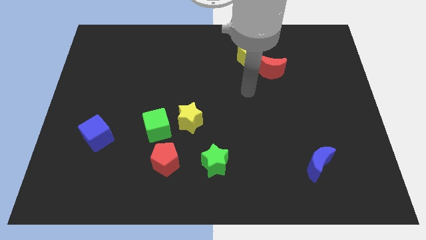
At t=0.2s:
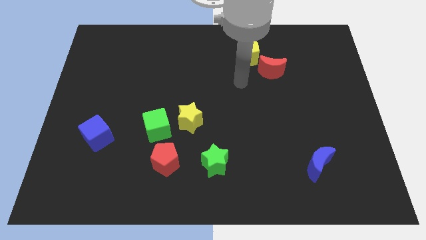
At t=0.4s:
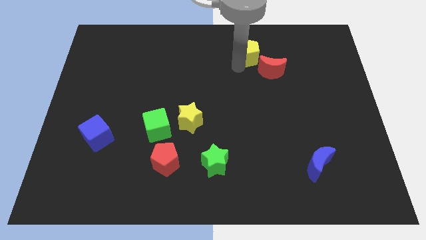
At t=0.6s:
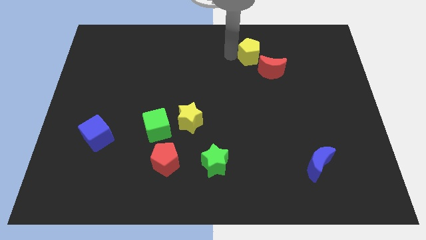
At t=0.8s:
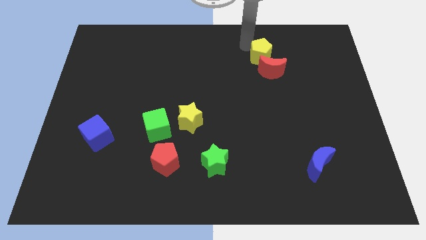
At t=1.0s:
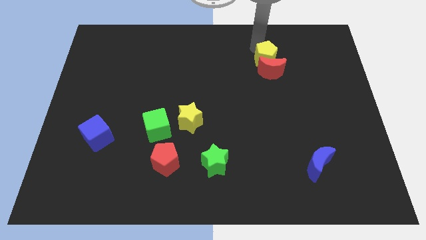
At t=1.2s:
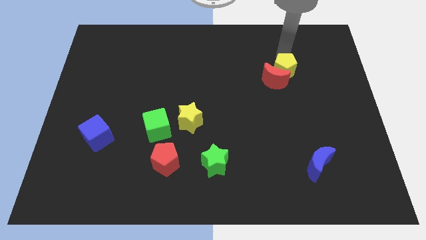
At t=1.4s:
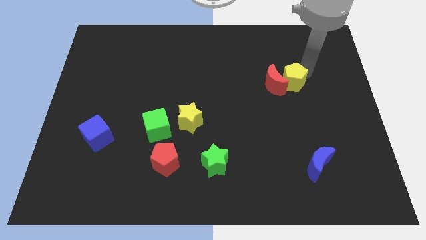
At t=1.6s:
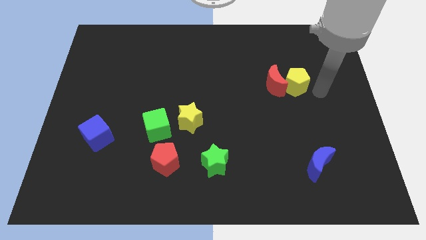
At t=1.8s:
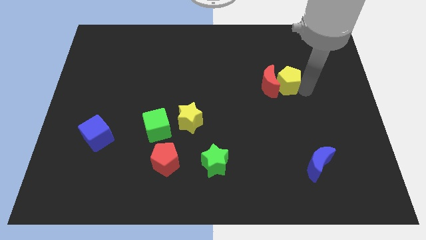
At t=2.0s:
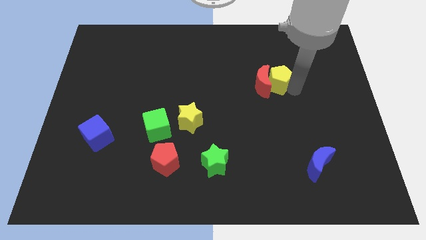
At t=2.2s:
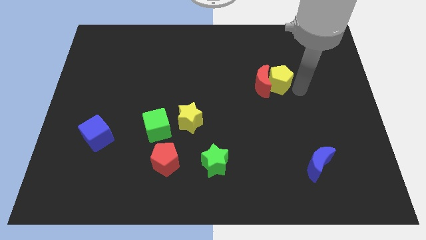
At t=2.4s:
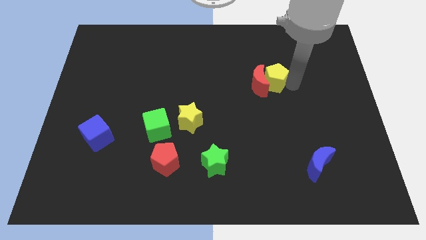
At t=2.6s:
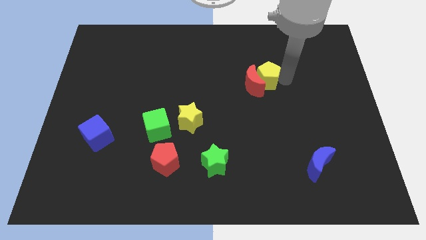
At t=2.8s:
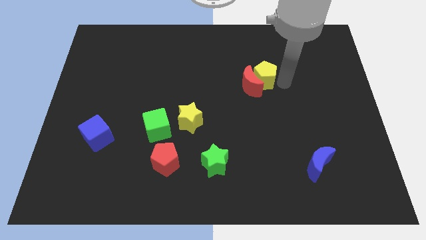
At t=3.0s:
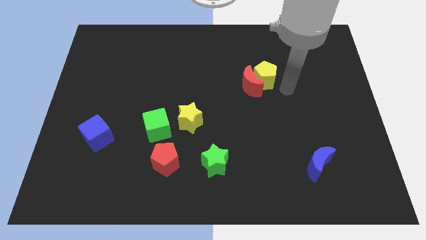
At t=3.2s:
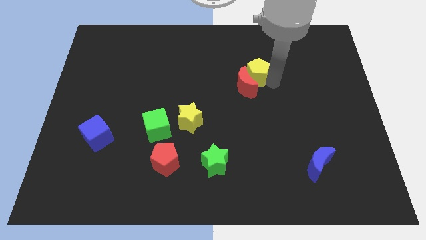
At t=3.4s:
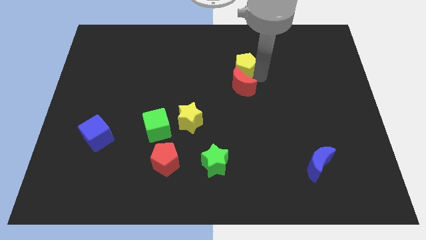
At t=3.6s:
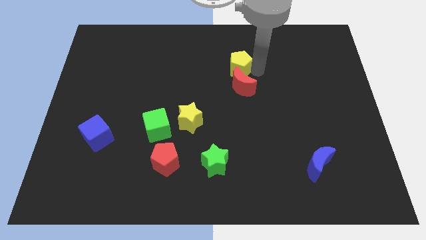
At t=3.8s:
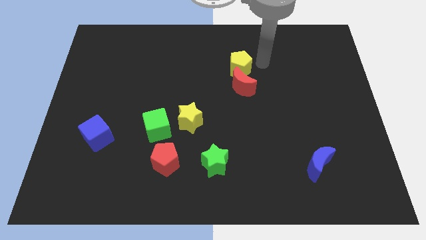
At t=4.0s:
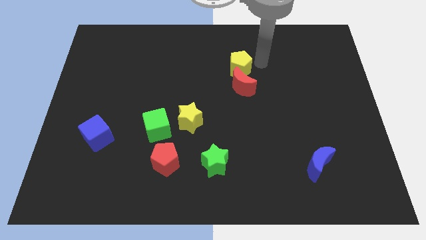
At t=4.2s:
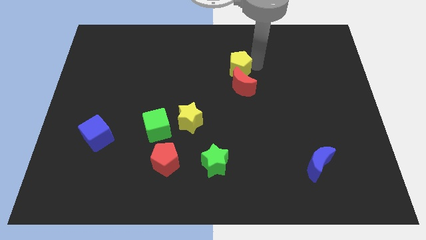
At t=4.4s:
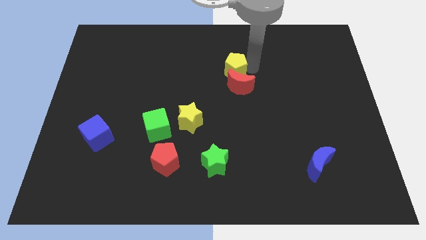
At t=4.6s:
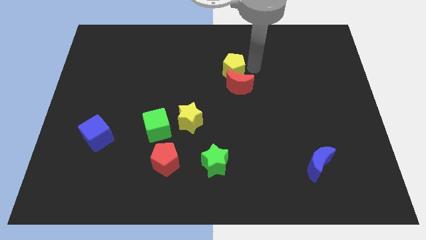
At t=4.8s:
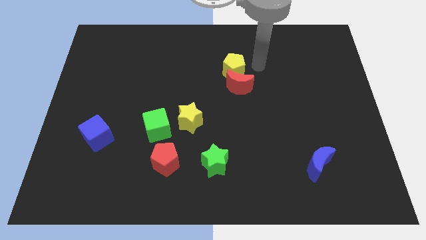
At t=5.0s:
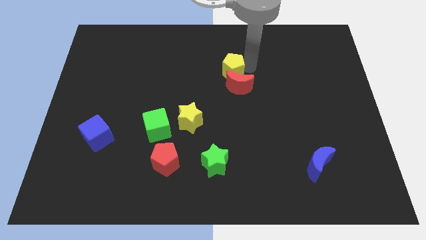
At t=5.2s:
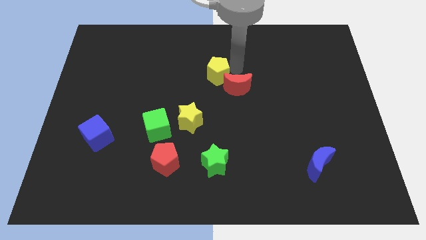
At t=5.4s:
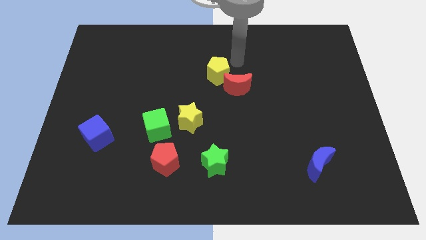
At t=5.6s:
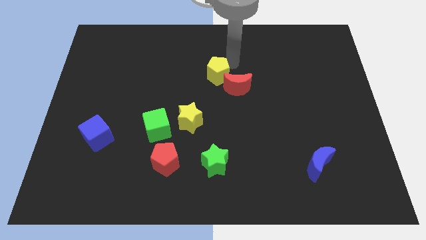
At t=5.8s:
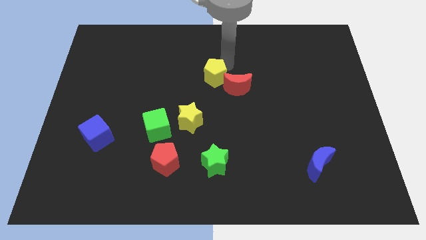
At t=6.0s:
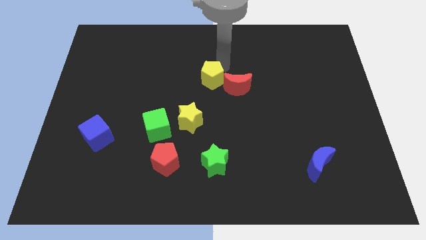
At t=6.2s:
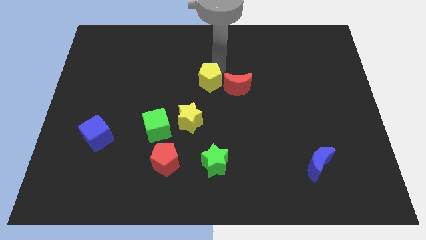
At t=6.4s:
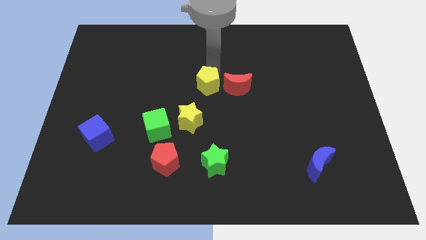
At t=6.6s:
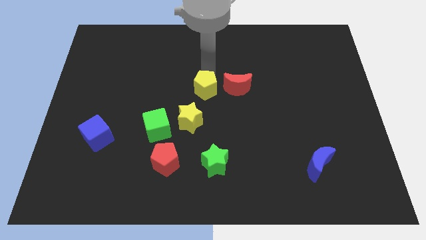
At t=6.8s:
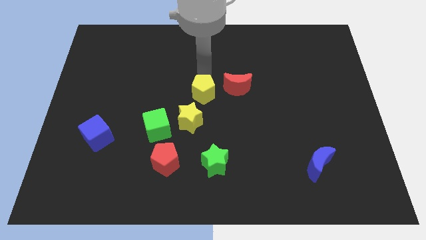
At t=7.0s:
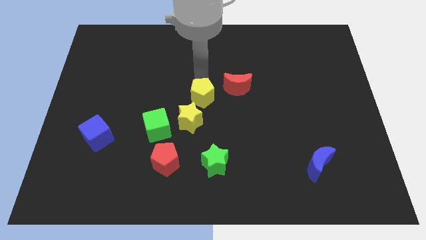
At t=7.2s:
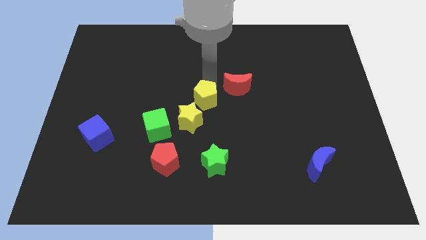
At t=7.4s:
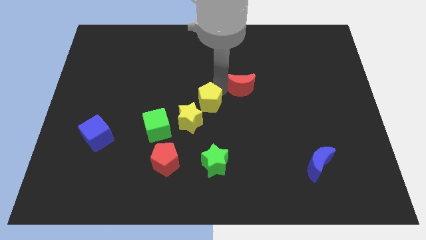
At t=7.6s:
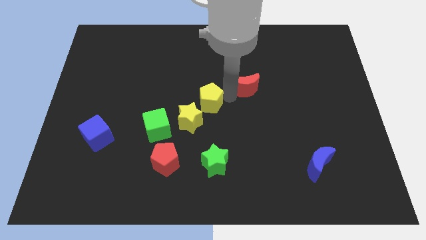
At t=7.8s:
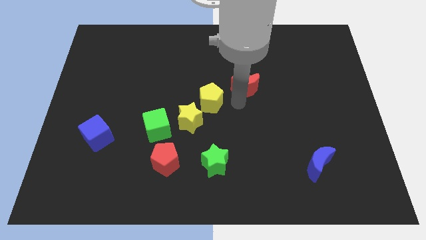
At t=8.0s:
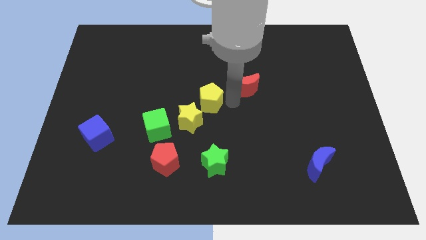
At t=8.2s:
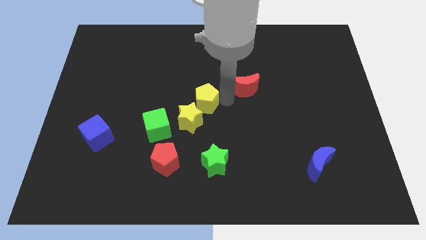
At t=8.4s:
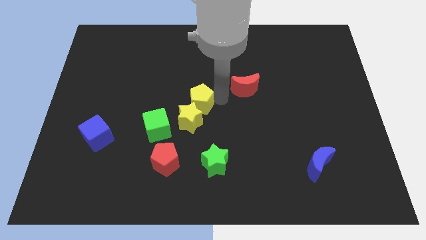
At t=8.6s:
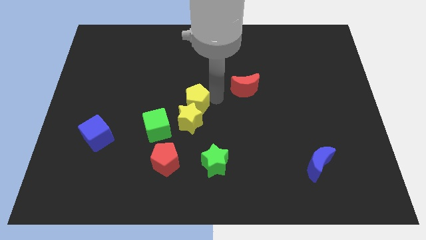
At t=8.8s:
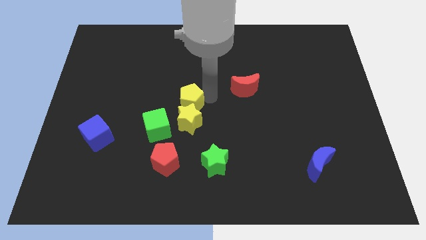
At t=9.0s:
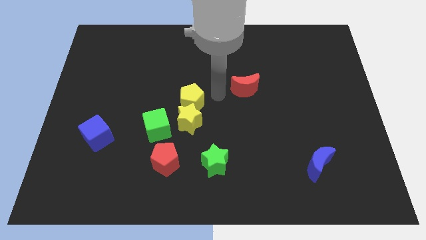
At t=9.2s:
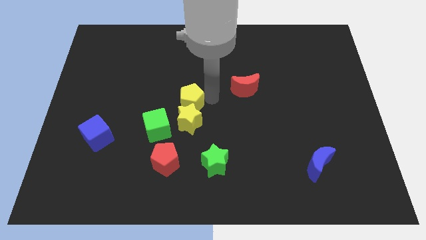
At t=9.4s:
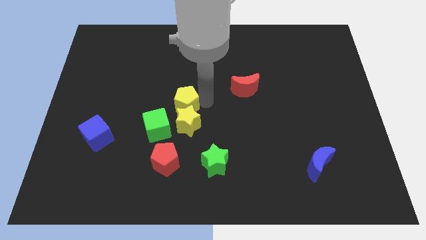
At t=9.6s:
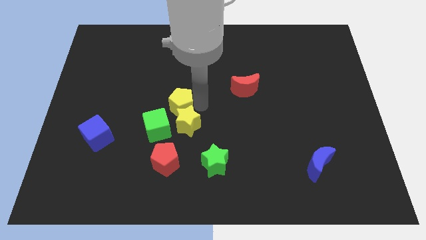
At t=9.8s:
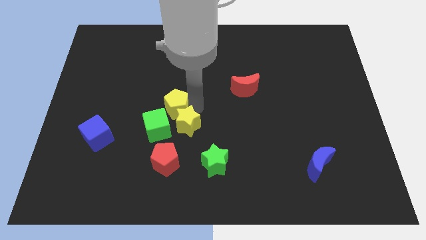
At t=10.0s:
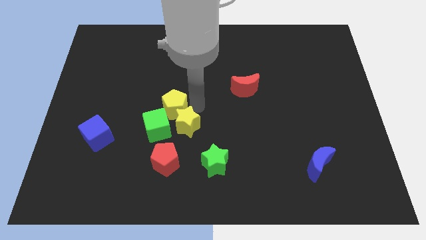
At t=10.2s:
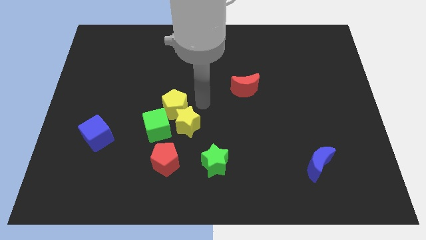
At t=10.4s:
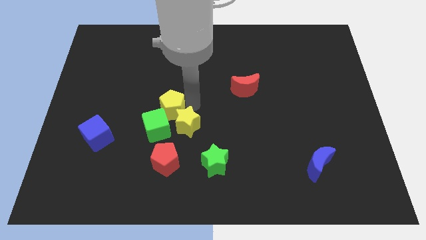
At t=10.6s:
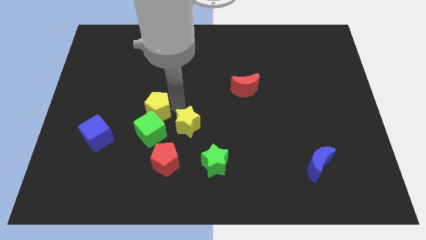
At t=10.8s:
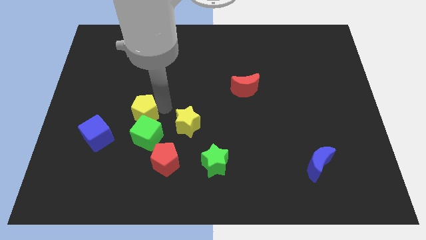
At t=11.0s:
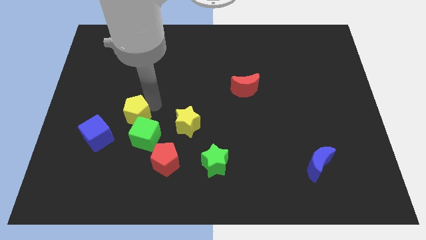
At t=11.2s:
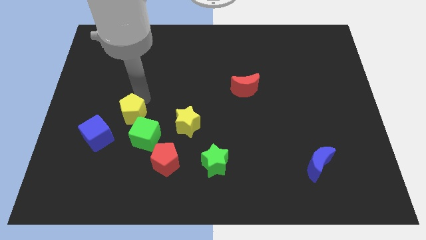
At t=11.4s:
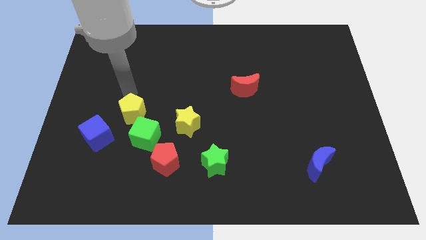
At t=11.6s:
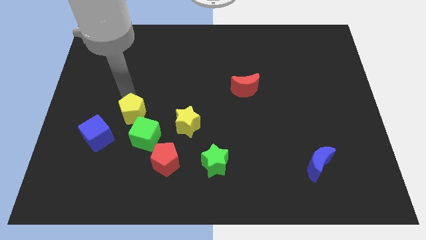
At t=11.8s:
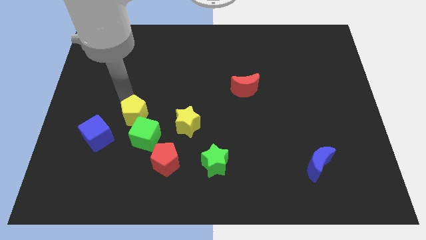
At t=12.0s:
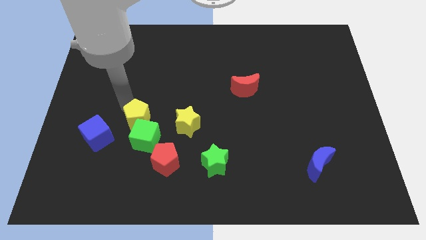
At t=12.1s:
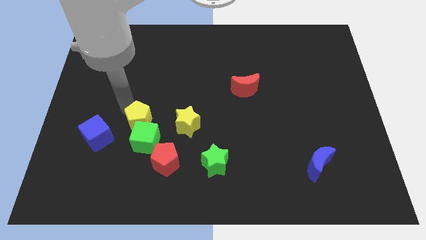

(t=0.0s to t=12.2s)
put the yellow pentagon to the top left side of the red pentagon

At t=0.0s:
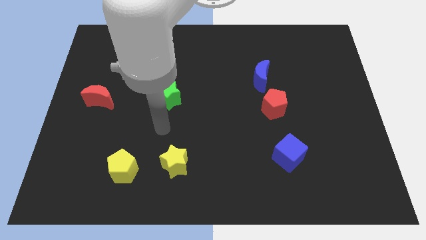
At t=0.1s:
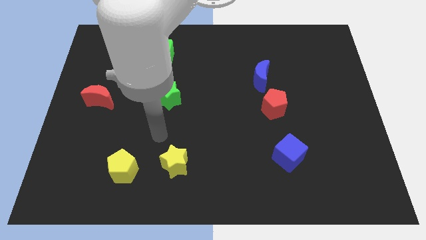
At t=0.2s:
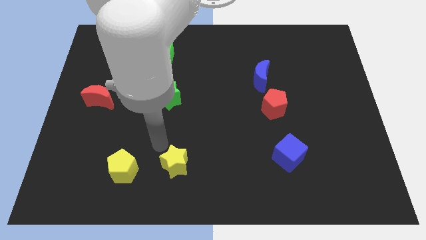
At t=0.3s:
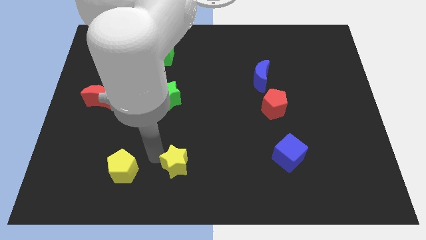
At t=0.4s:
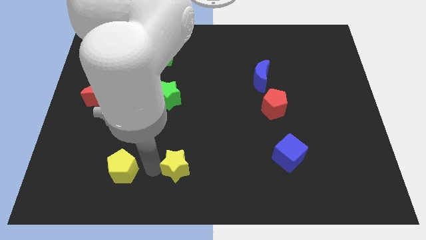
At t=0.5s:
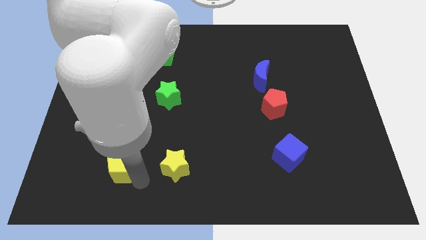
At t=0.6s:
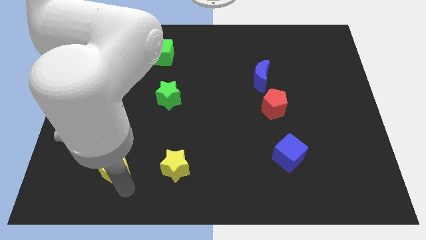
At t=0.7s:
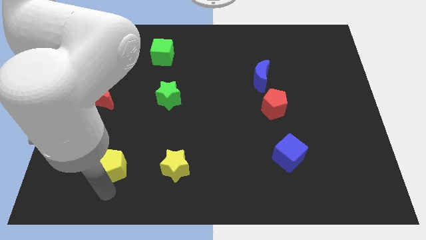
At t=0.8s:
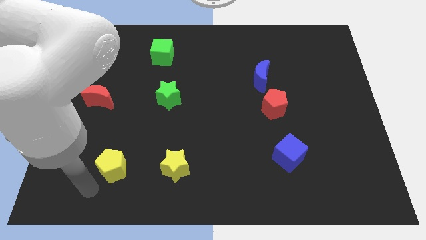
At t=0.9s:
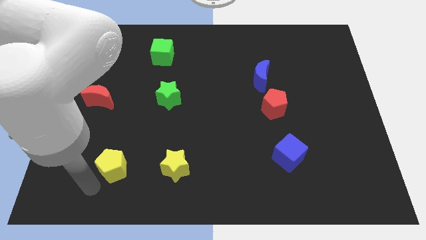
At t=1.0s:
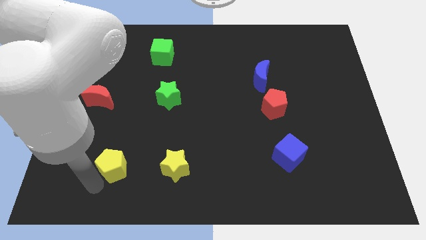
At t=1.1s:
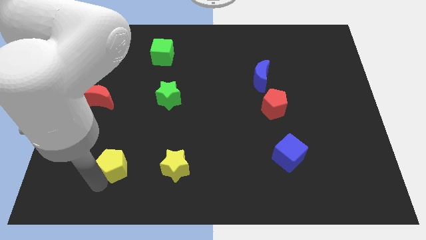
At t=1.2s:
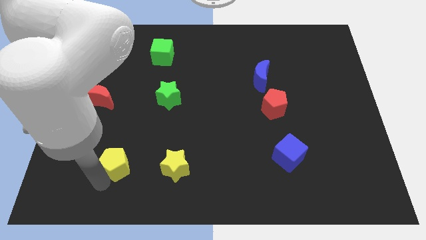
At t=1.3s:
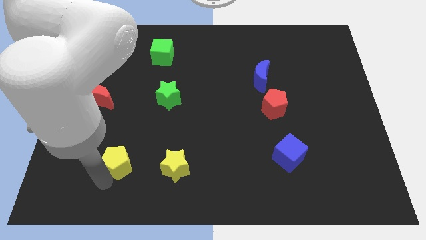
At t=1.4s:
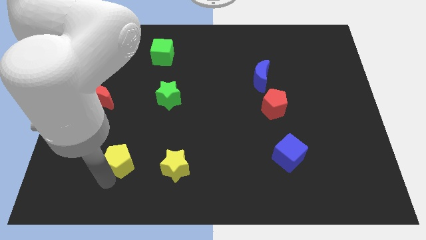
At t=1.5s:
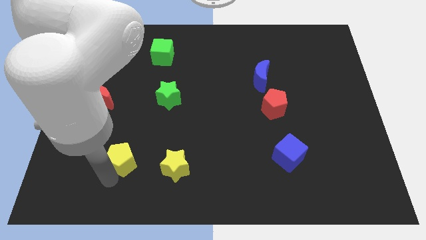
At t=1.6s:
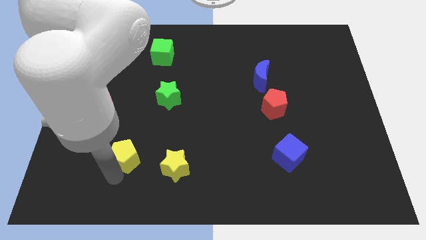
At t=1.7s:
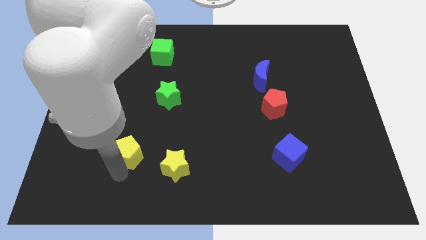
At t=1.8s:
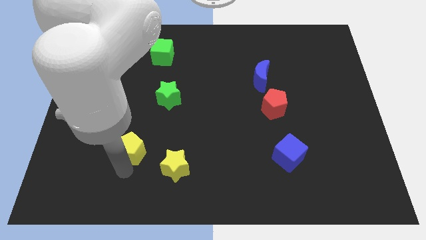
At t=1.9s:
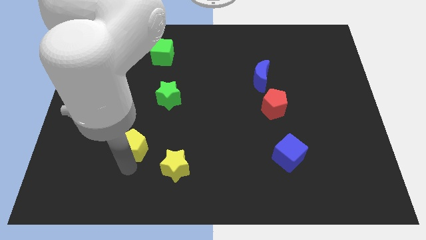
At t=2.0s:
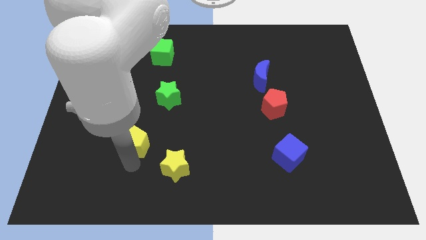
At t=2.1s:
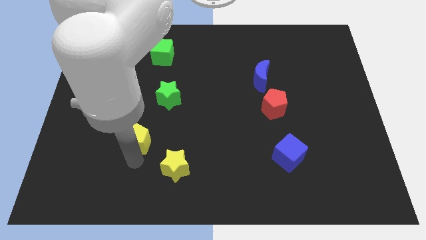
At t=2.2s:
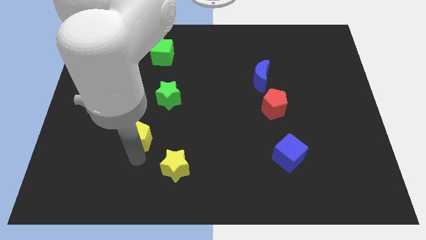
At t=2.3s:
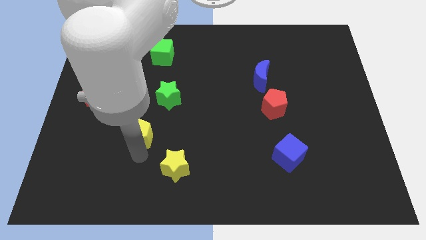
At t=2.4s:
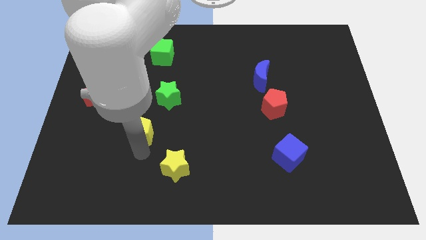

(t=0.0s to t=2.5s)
slide the yellow pentagon to the bottom left of the green star
